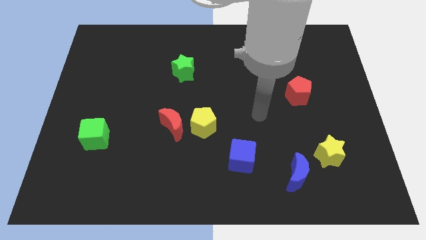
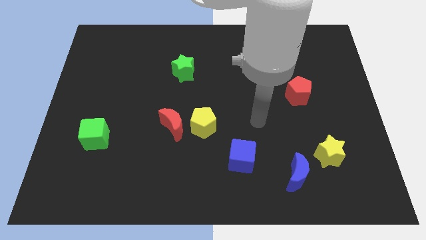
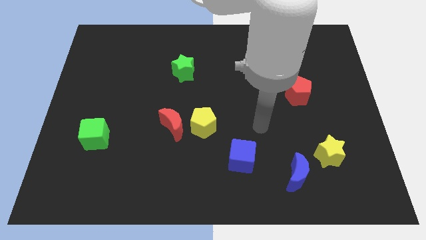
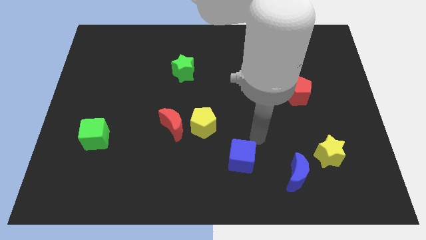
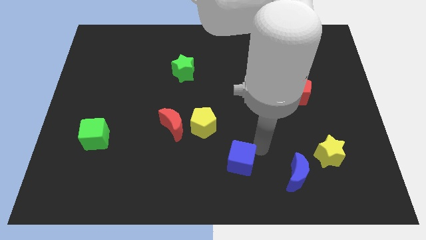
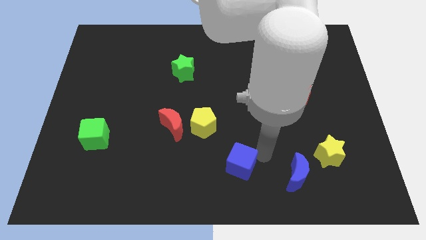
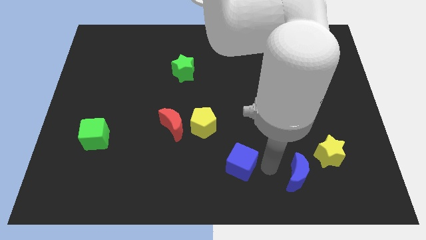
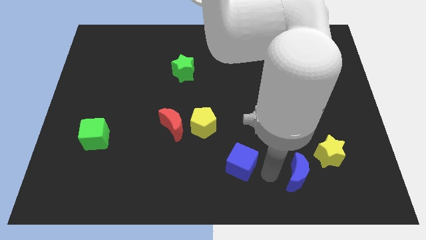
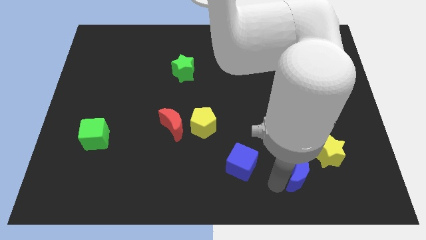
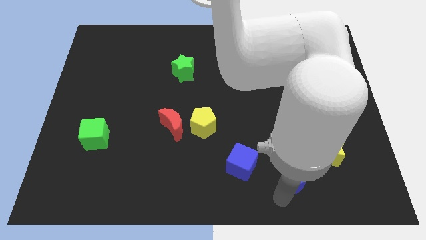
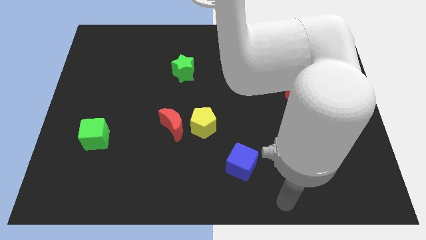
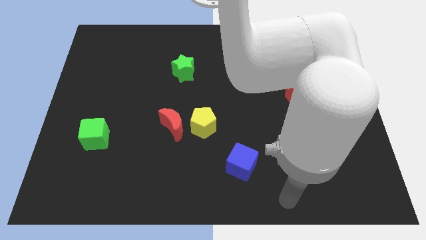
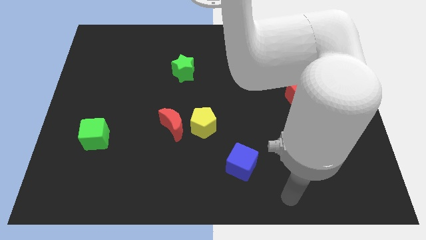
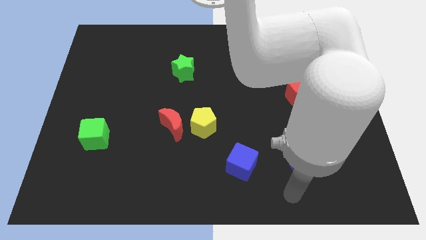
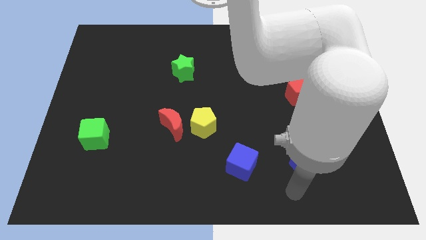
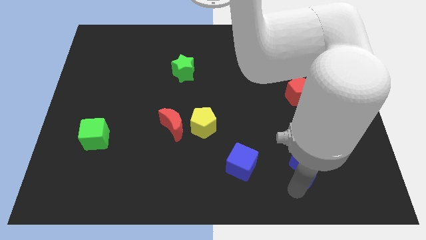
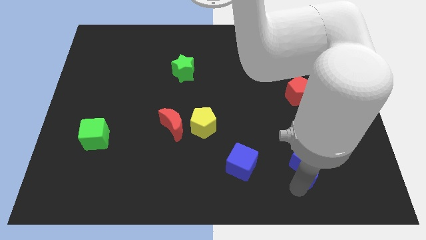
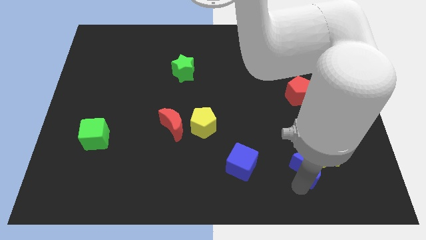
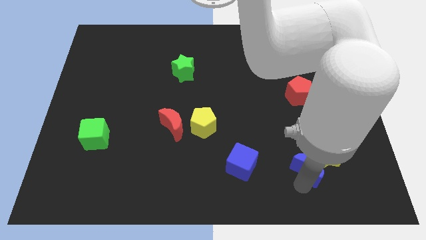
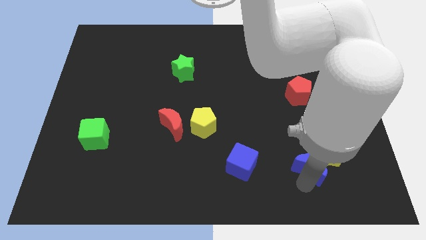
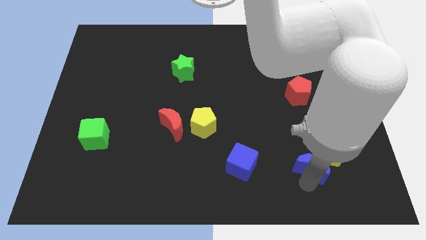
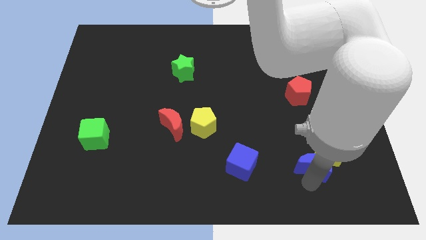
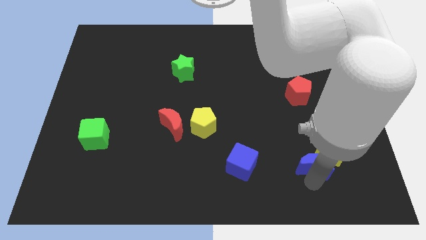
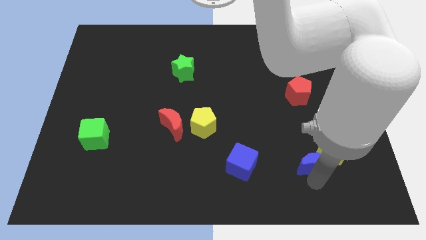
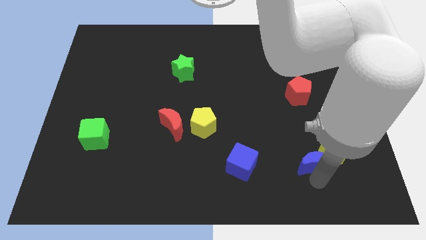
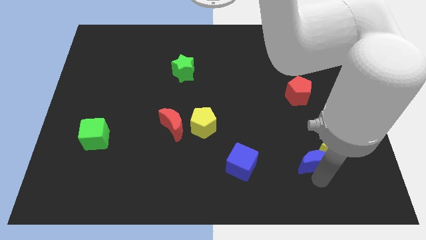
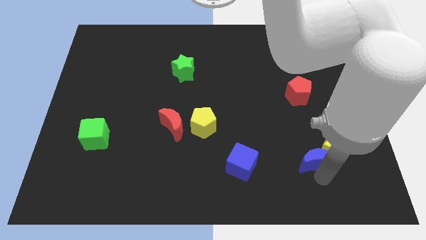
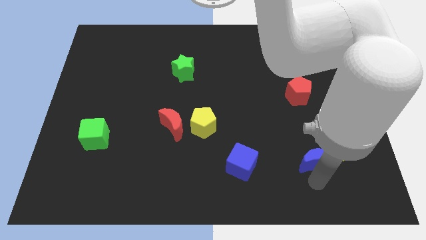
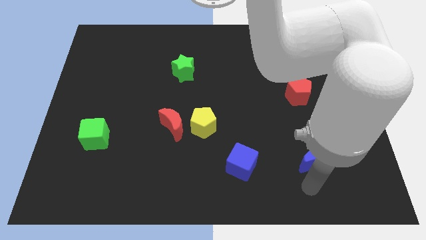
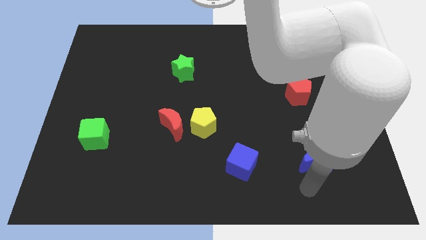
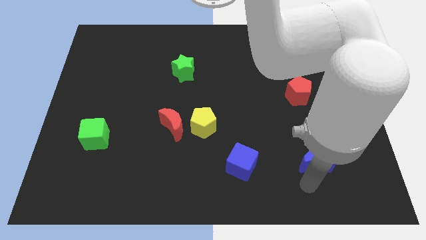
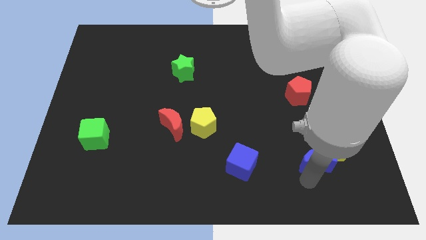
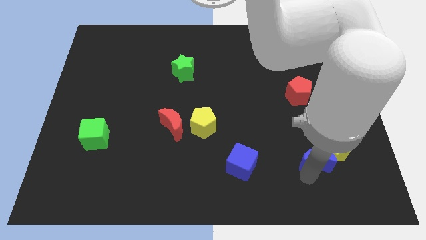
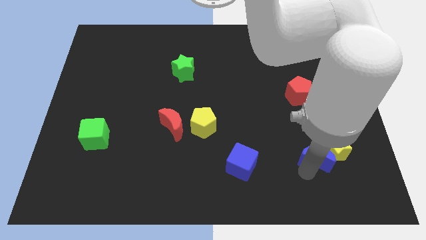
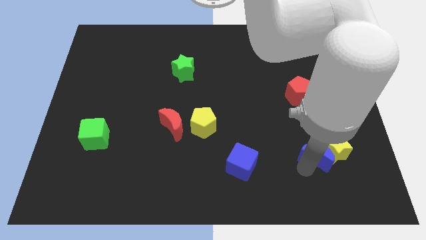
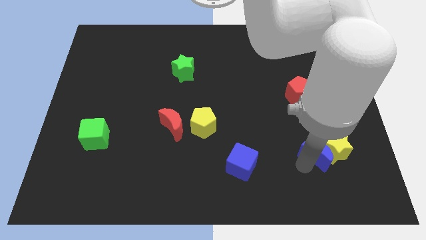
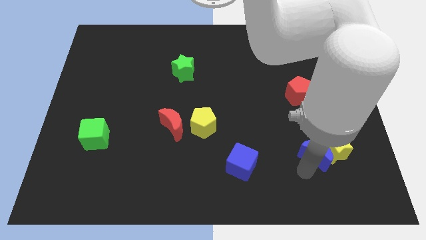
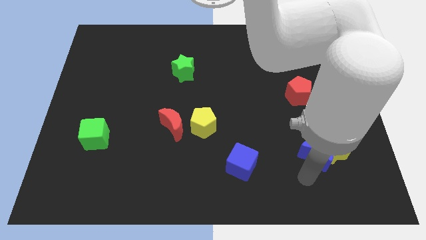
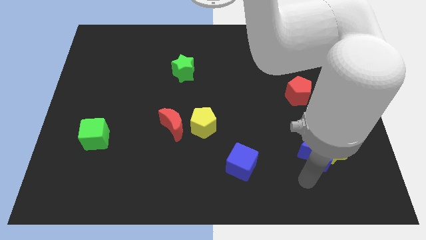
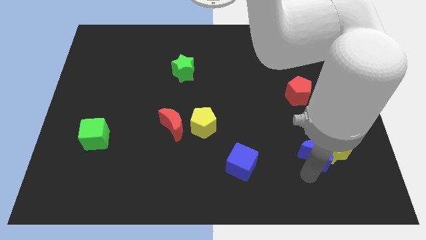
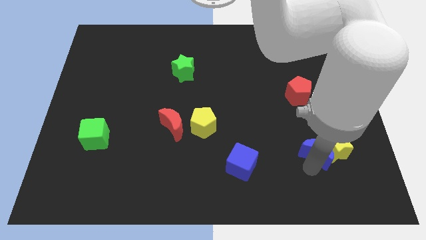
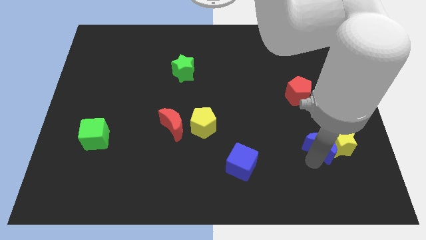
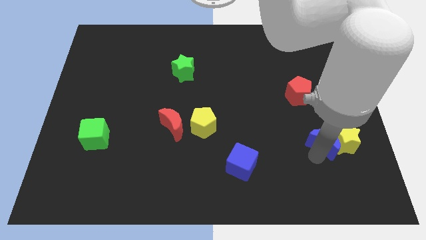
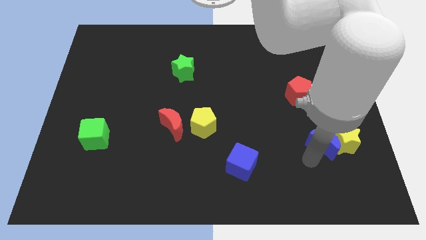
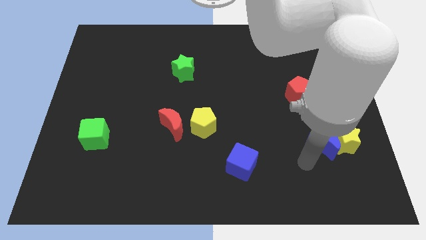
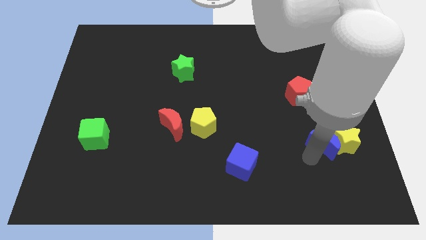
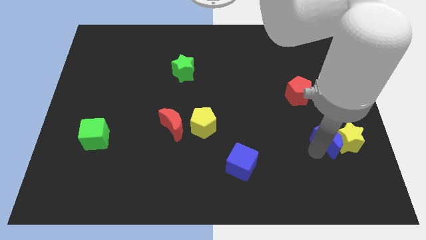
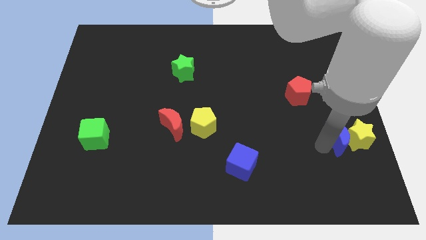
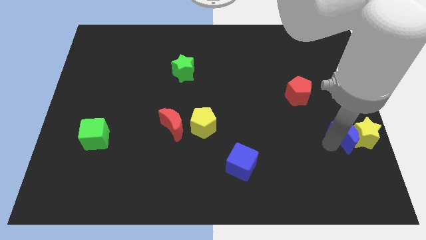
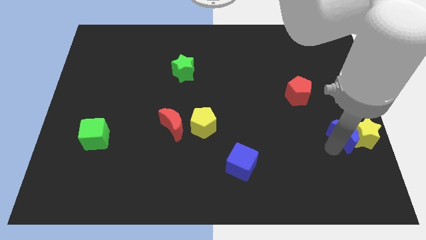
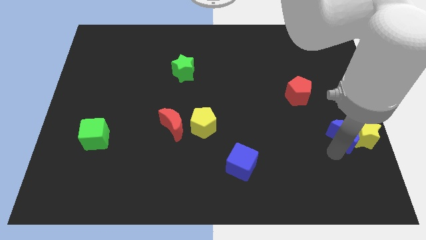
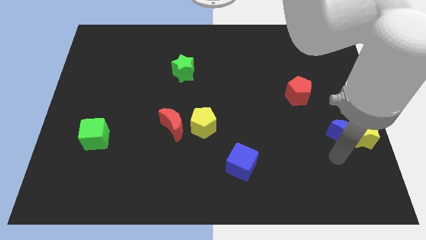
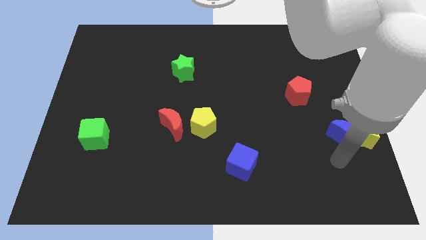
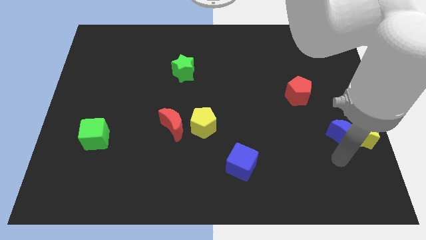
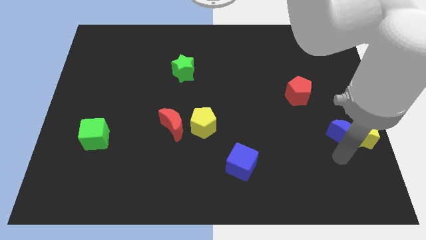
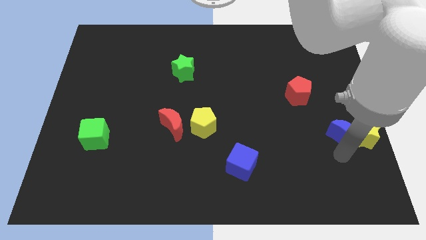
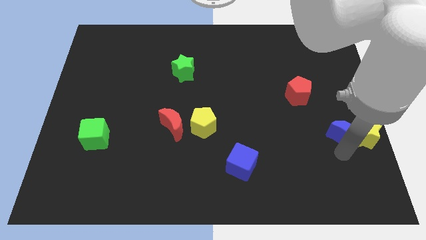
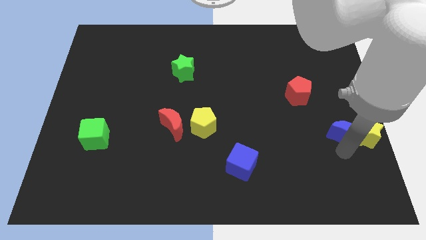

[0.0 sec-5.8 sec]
push the blue moon to the right side of the board
